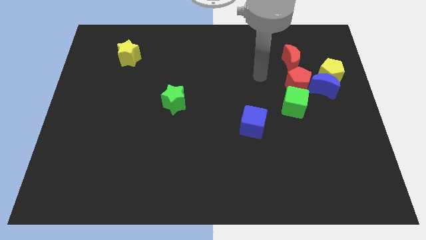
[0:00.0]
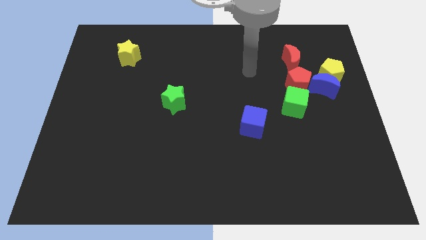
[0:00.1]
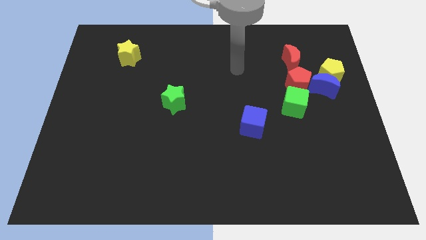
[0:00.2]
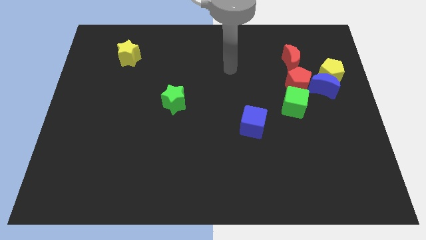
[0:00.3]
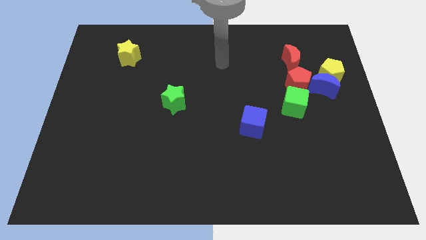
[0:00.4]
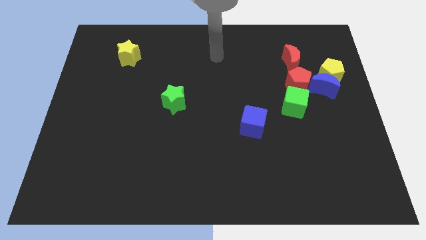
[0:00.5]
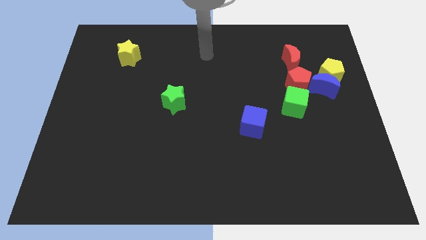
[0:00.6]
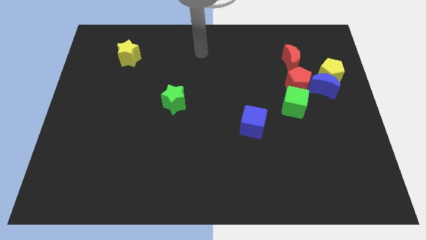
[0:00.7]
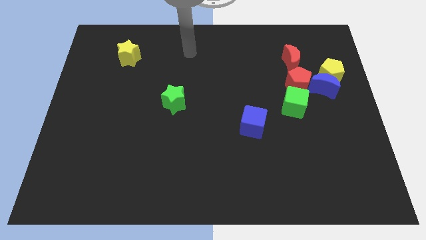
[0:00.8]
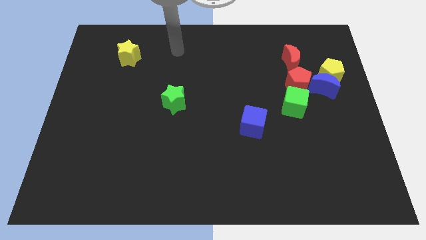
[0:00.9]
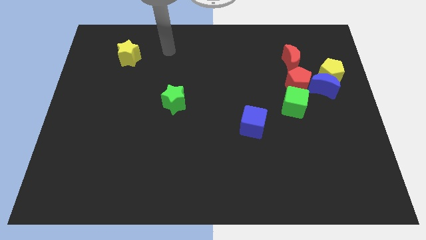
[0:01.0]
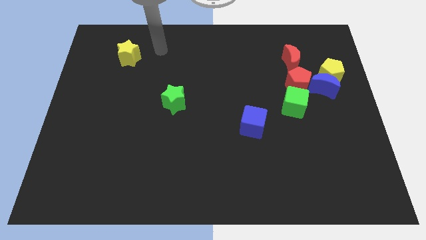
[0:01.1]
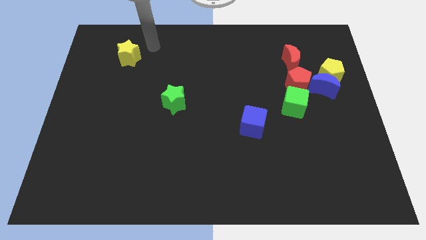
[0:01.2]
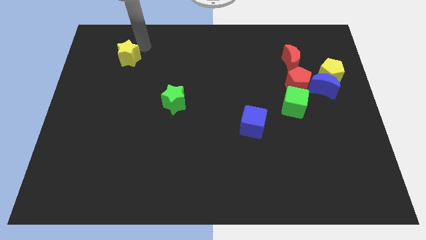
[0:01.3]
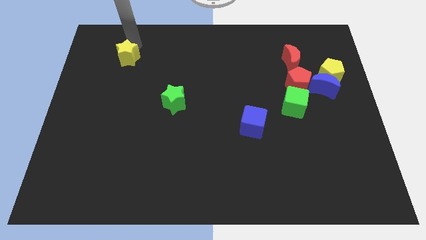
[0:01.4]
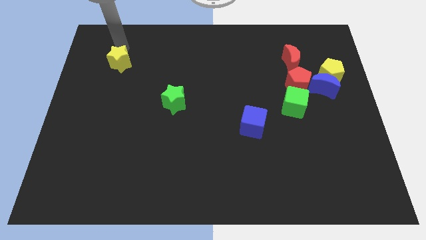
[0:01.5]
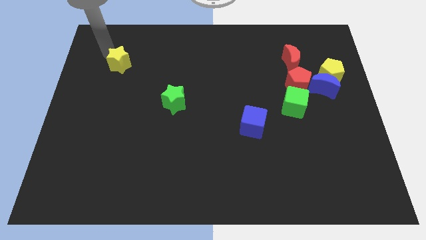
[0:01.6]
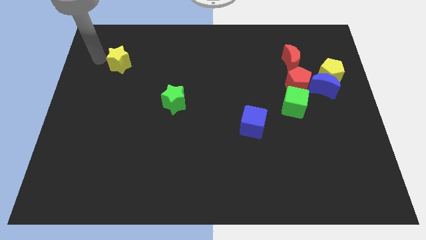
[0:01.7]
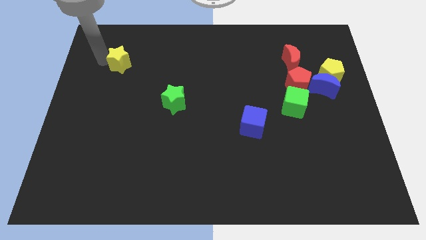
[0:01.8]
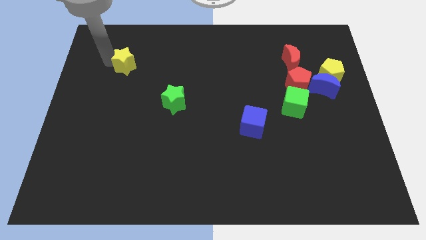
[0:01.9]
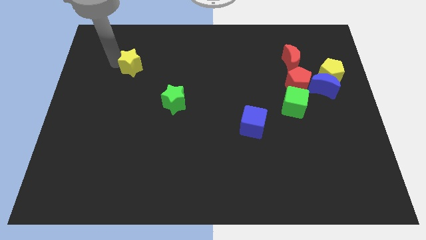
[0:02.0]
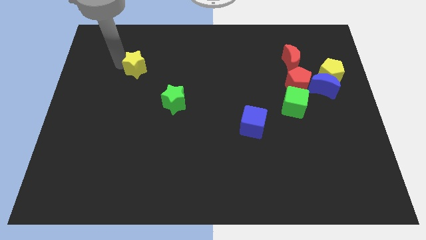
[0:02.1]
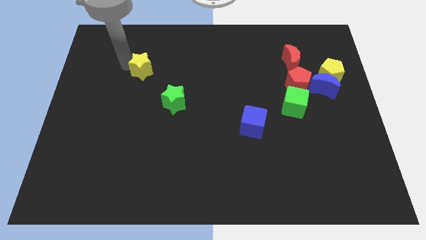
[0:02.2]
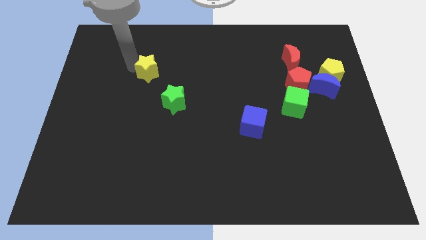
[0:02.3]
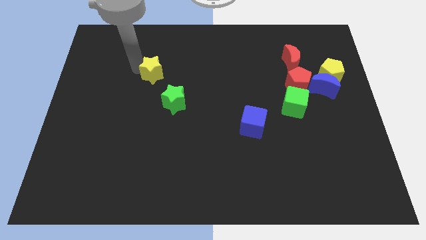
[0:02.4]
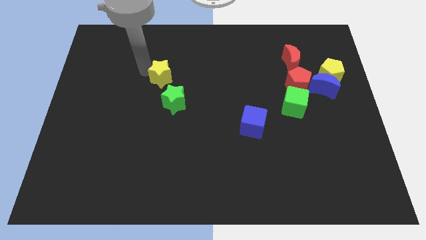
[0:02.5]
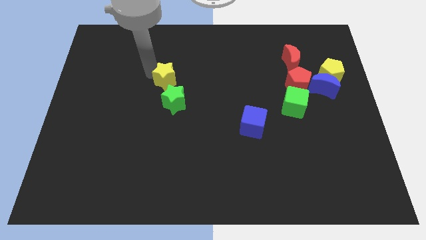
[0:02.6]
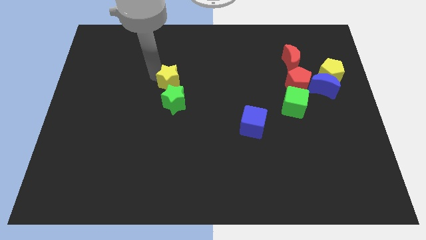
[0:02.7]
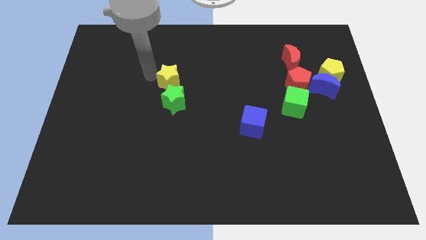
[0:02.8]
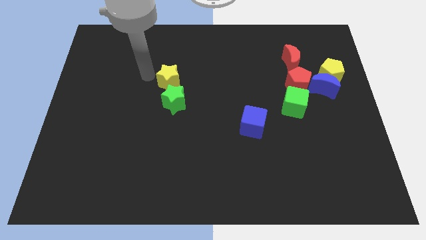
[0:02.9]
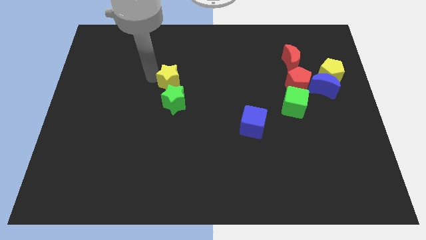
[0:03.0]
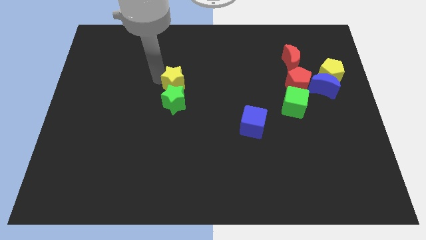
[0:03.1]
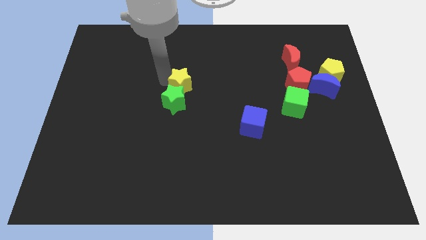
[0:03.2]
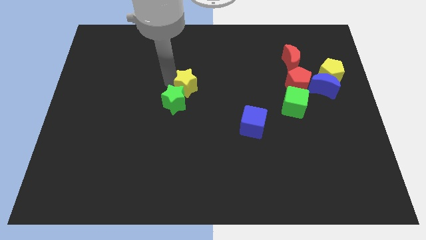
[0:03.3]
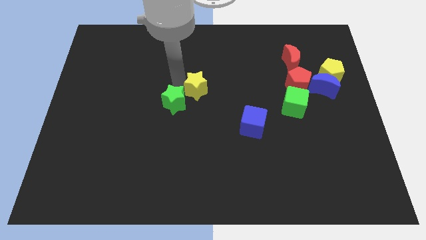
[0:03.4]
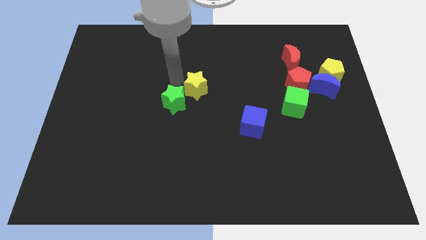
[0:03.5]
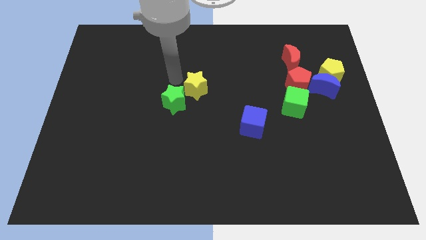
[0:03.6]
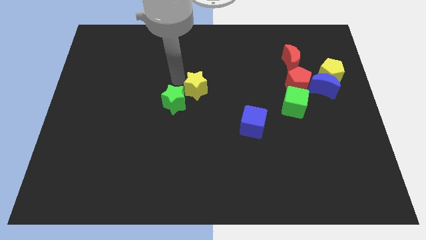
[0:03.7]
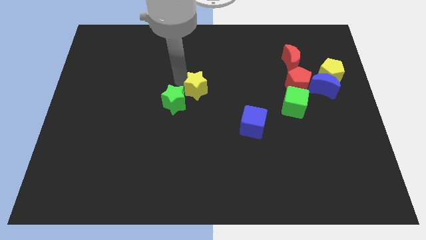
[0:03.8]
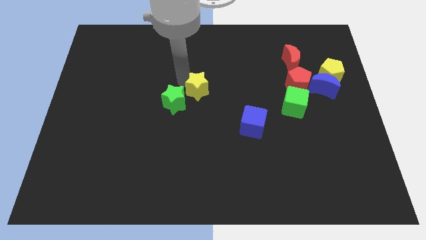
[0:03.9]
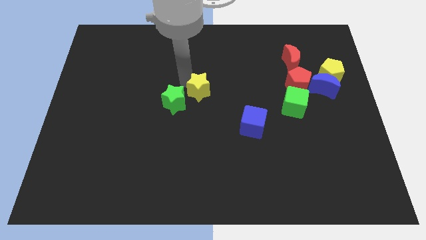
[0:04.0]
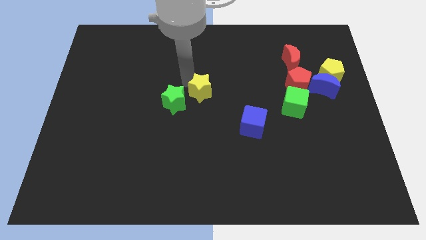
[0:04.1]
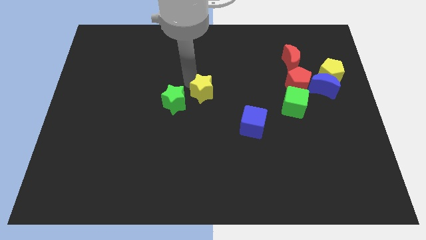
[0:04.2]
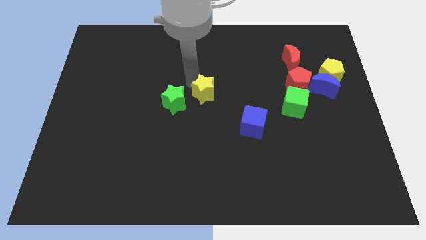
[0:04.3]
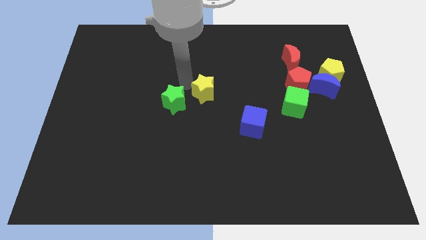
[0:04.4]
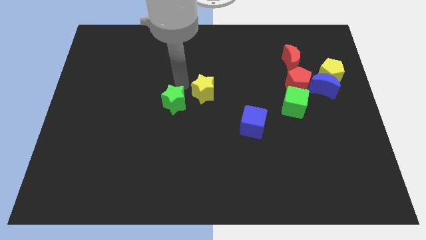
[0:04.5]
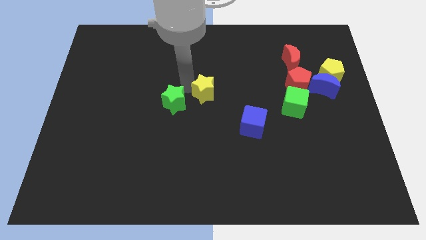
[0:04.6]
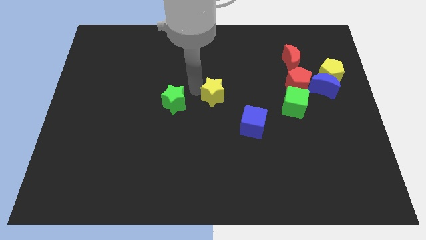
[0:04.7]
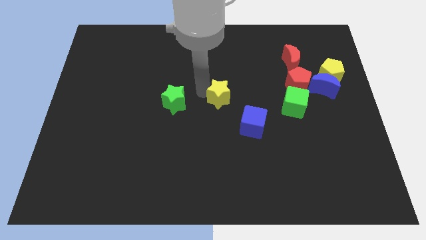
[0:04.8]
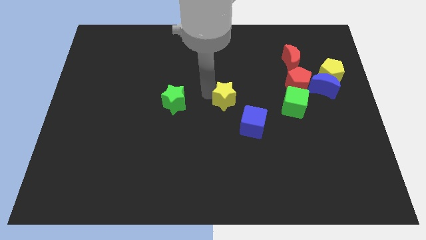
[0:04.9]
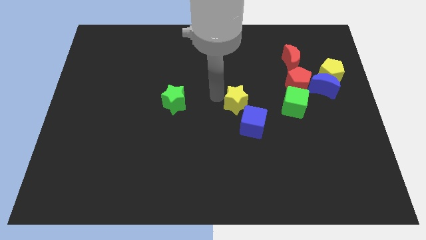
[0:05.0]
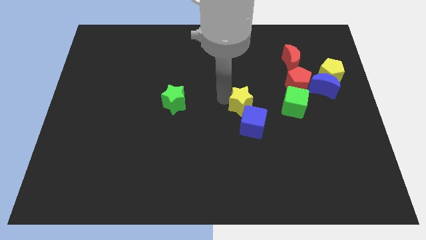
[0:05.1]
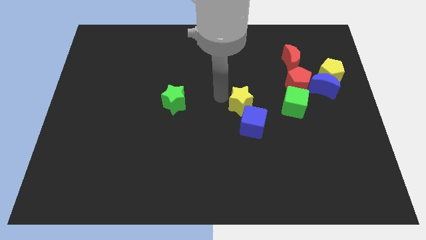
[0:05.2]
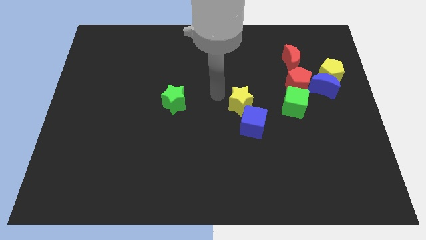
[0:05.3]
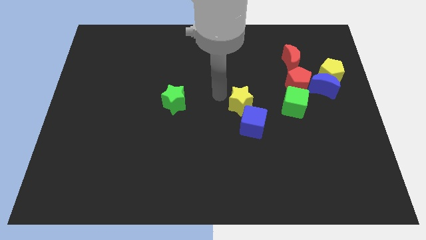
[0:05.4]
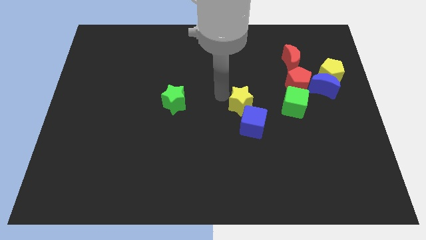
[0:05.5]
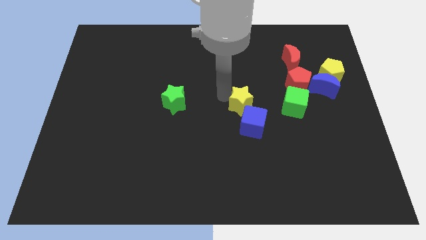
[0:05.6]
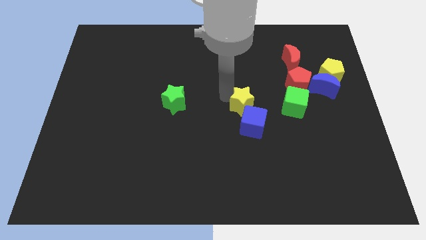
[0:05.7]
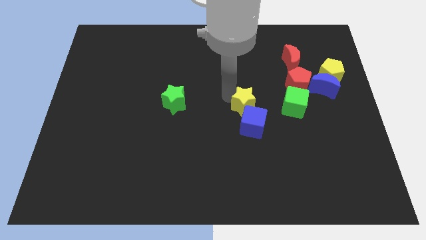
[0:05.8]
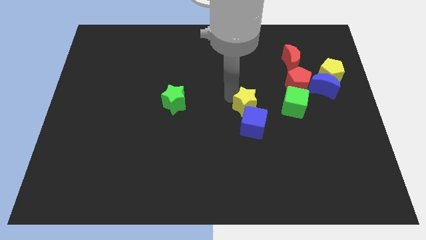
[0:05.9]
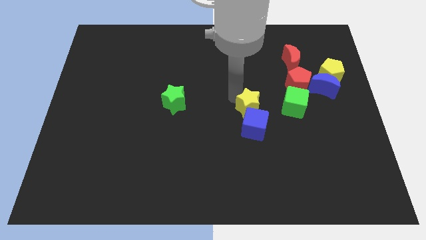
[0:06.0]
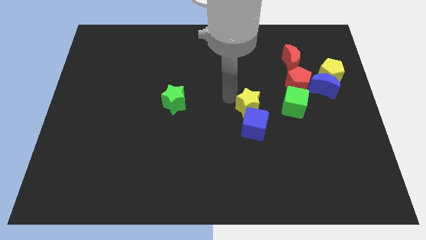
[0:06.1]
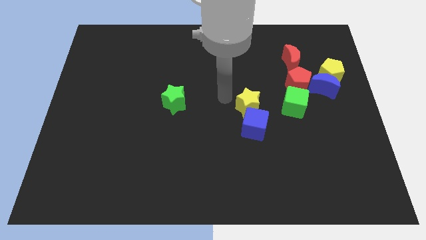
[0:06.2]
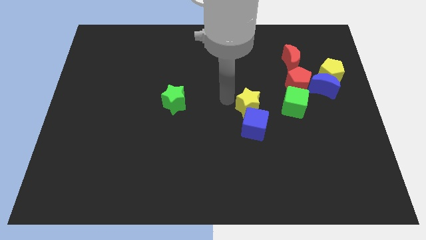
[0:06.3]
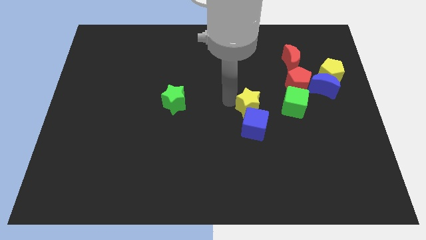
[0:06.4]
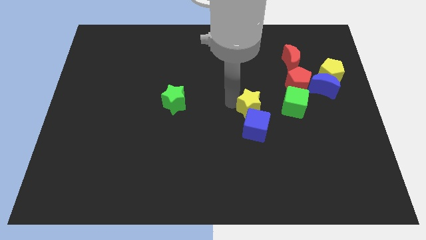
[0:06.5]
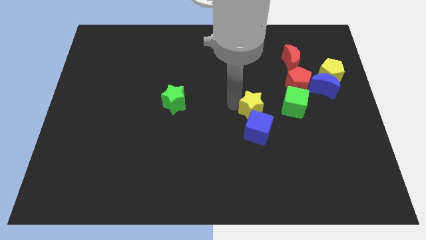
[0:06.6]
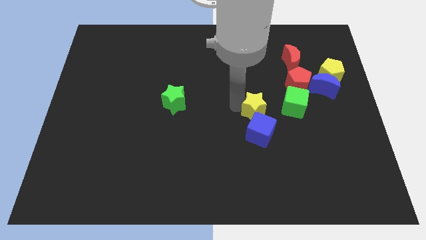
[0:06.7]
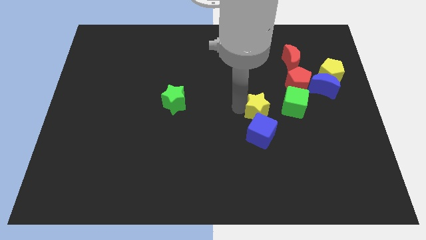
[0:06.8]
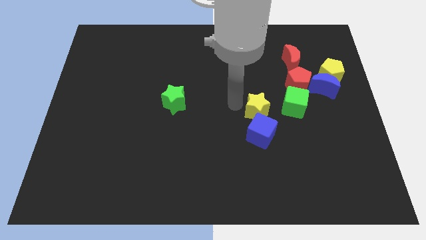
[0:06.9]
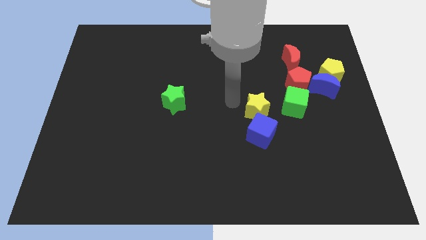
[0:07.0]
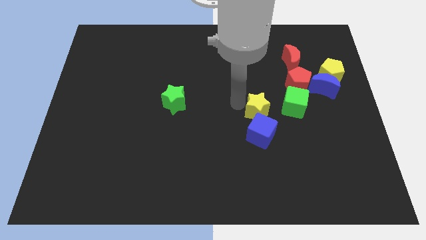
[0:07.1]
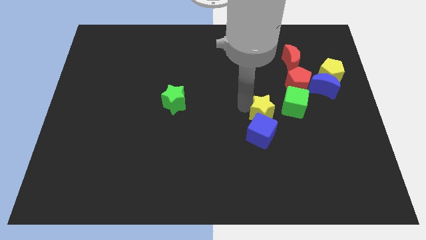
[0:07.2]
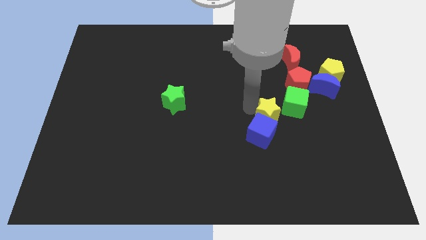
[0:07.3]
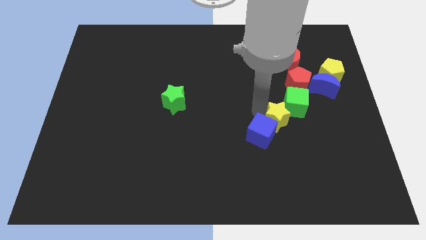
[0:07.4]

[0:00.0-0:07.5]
put the yellow star just right of the blue cube

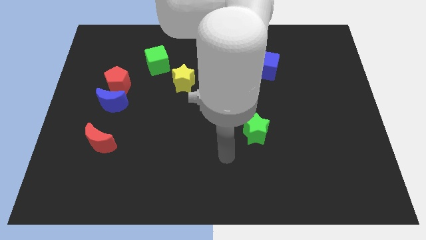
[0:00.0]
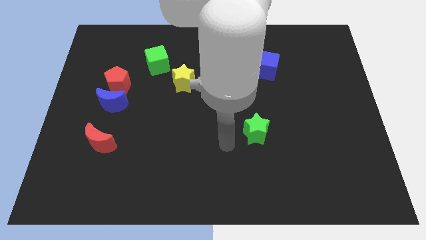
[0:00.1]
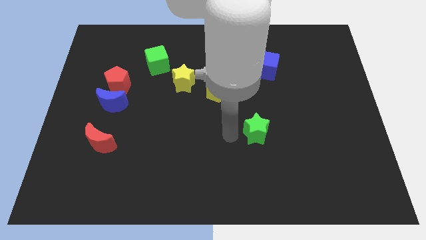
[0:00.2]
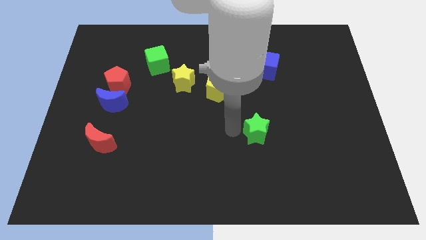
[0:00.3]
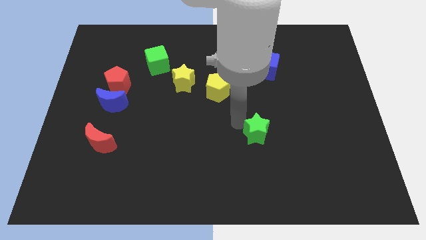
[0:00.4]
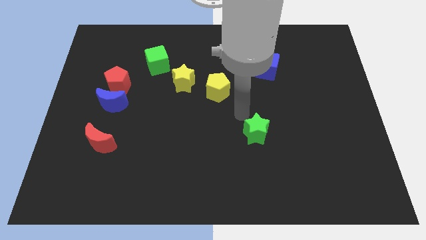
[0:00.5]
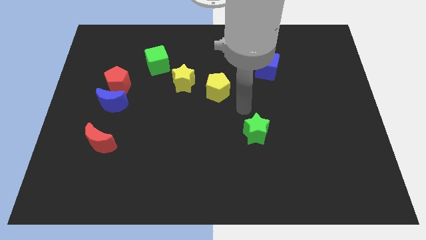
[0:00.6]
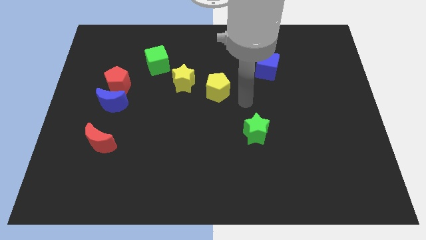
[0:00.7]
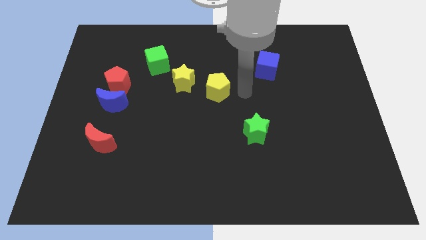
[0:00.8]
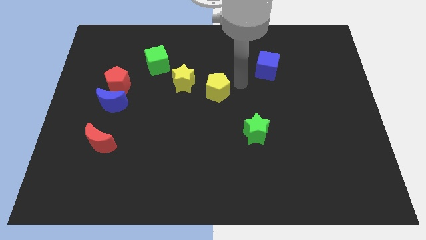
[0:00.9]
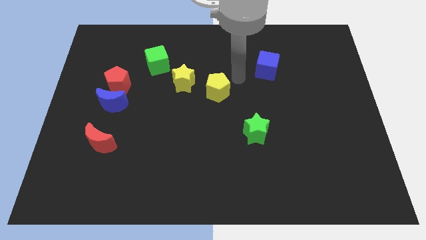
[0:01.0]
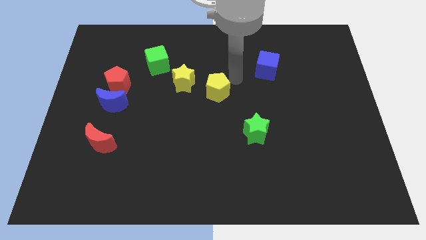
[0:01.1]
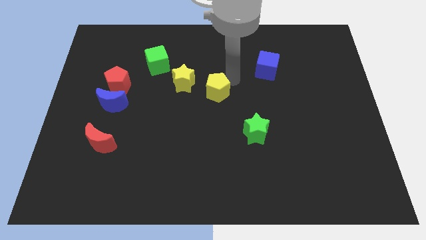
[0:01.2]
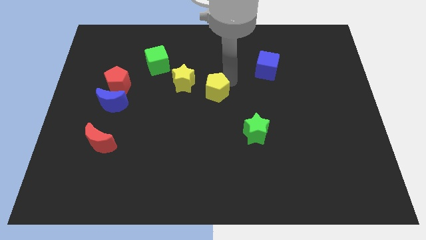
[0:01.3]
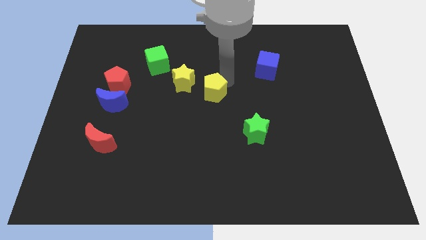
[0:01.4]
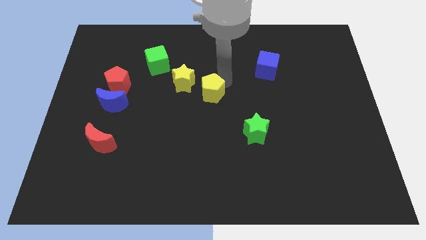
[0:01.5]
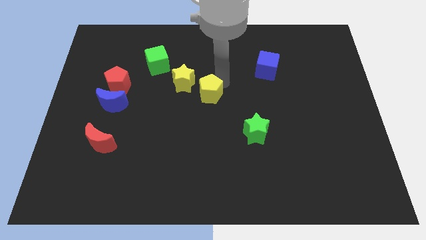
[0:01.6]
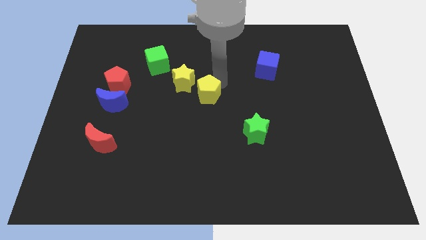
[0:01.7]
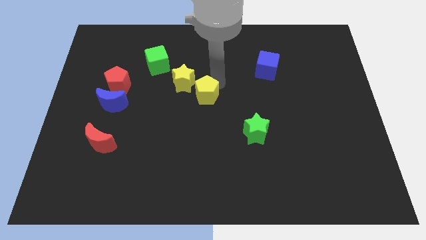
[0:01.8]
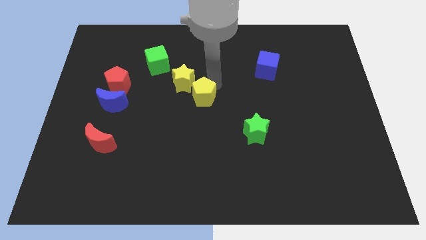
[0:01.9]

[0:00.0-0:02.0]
slide the yellow pentagon to the bottom of the yellow star
